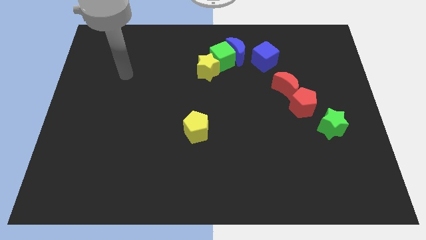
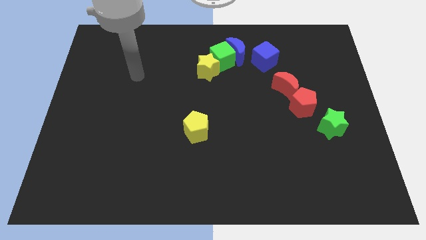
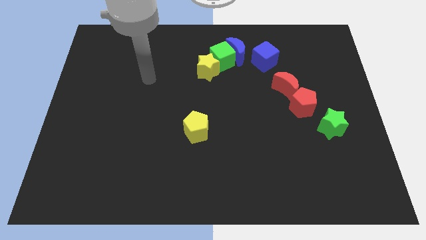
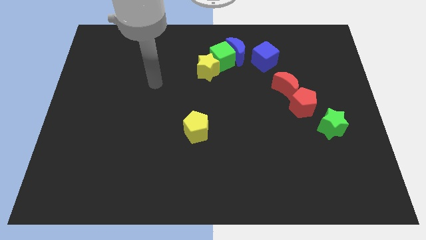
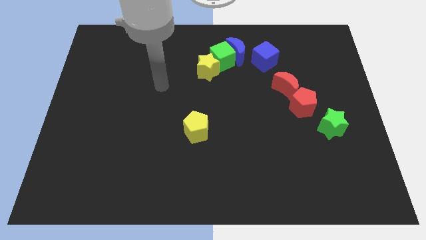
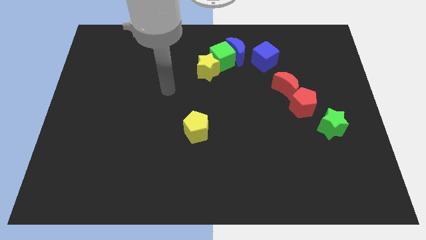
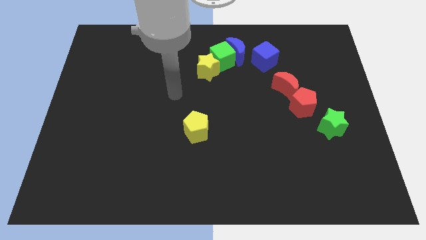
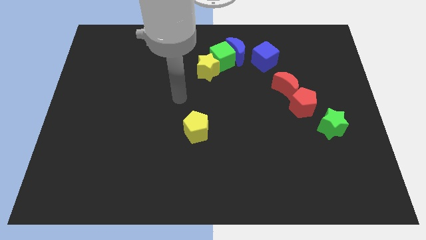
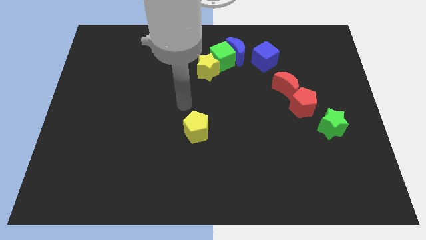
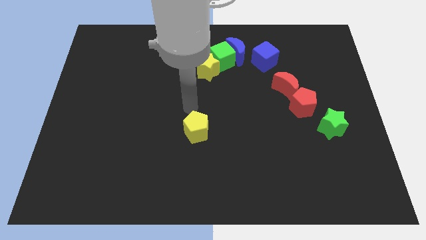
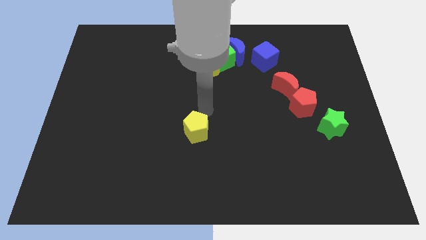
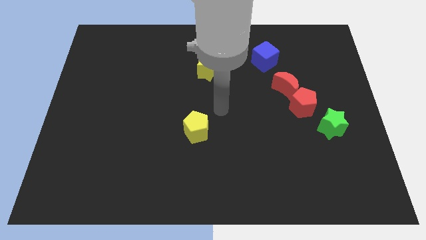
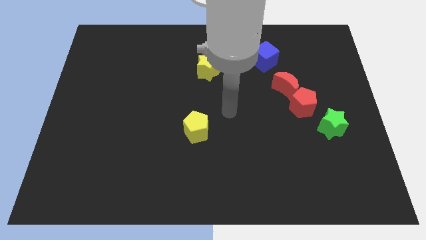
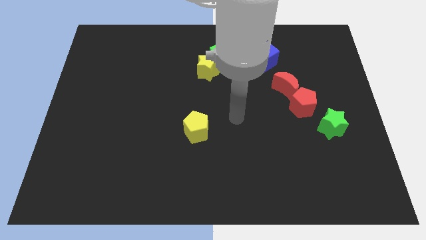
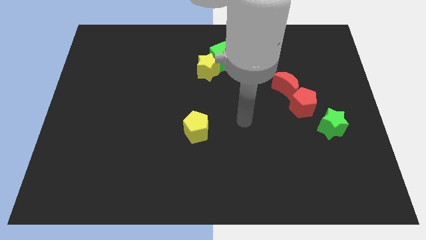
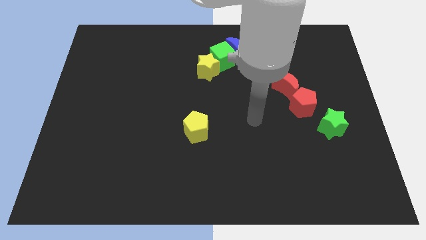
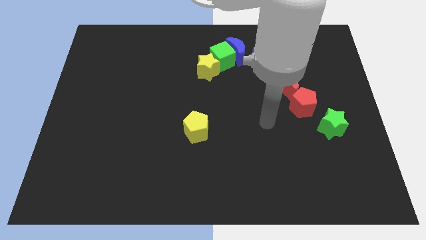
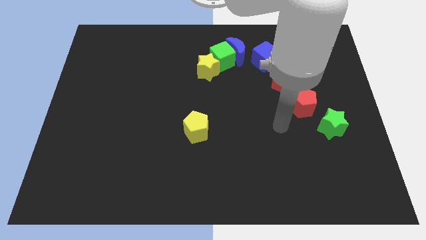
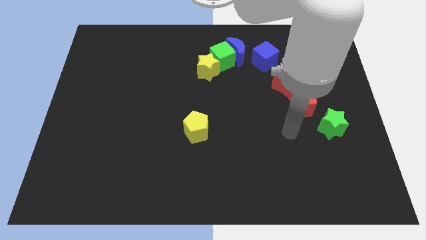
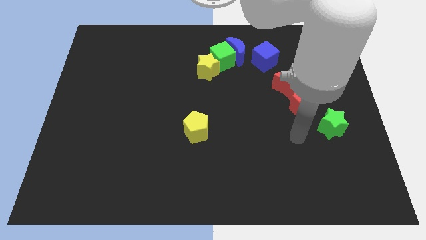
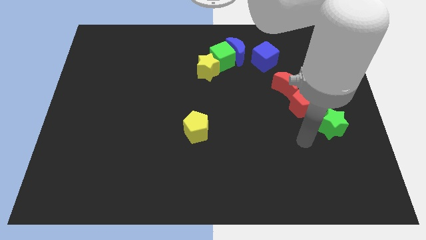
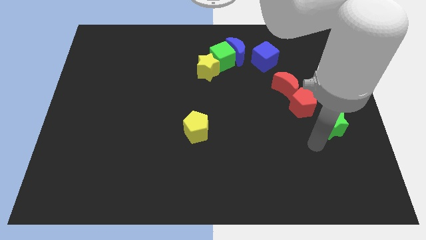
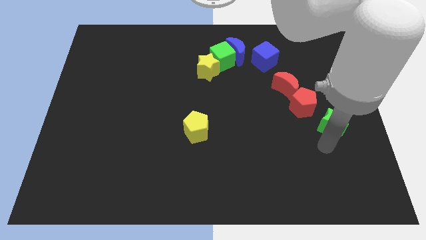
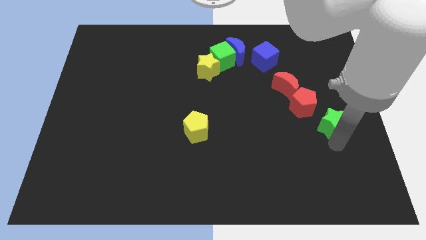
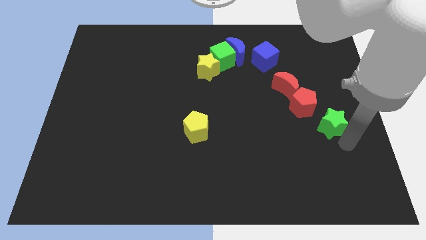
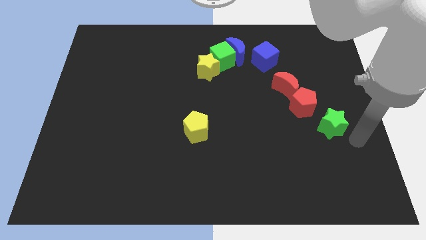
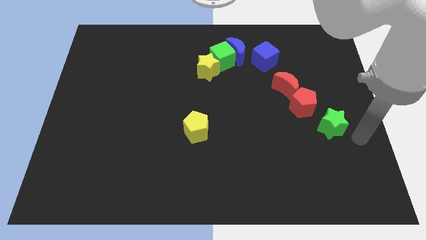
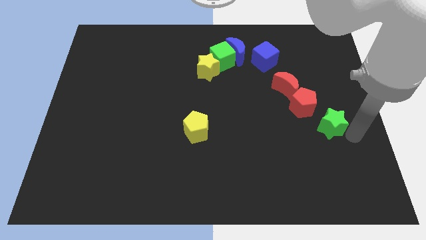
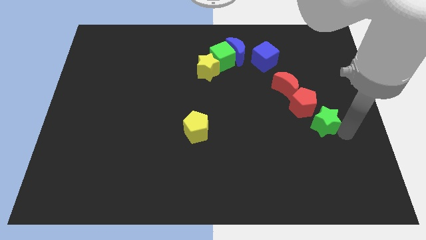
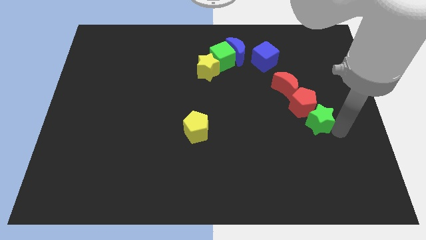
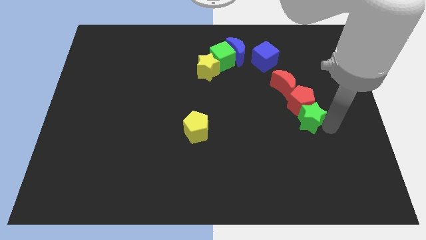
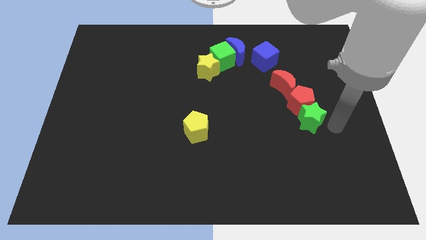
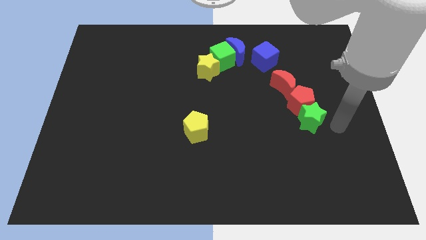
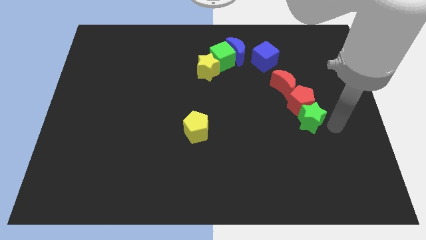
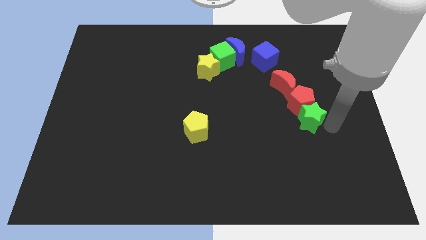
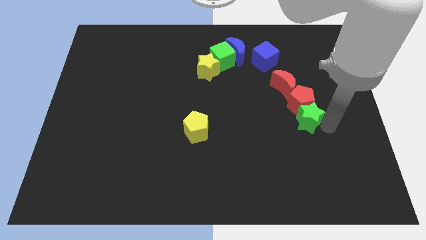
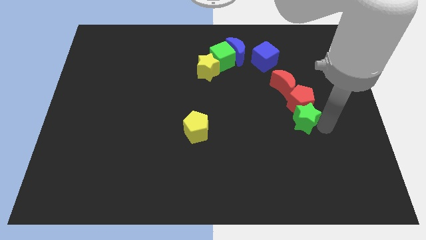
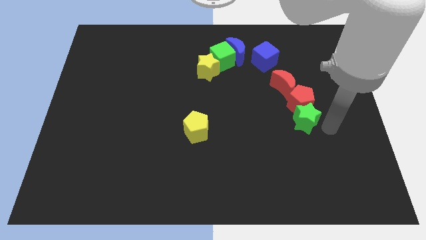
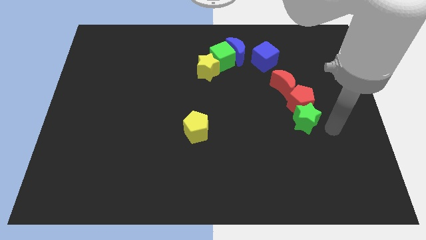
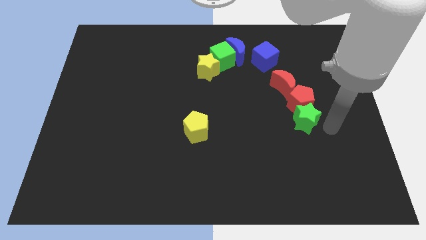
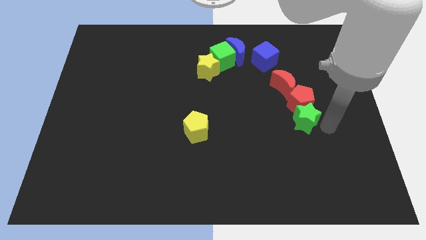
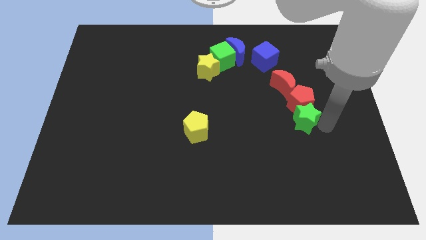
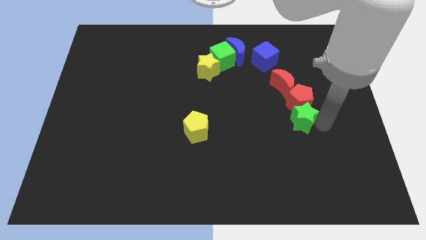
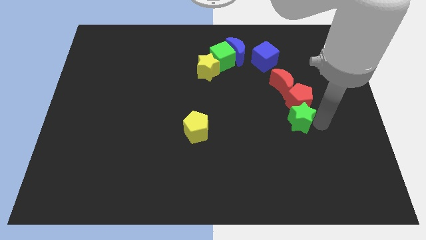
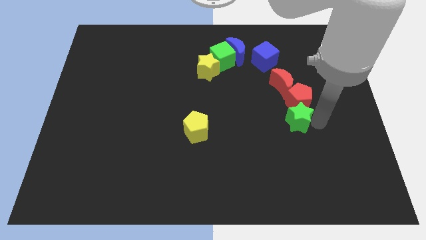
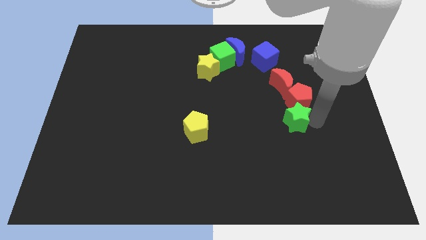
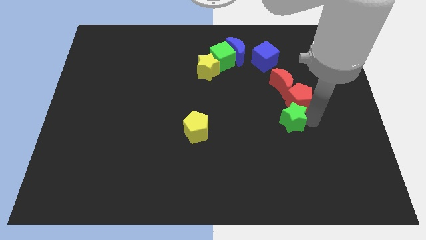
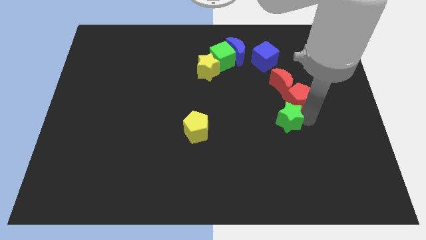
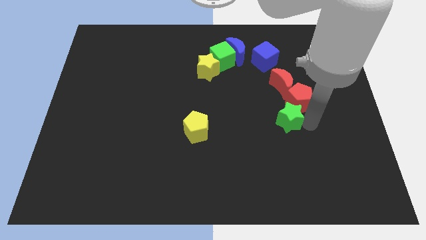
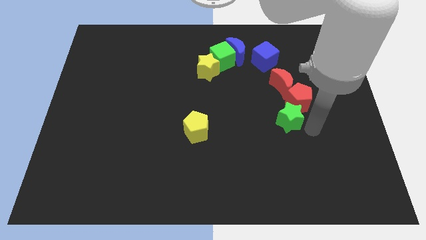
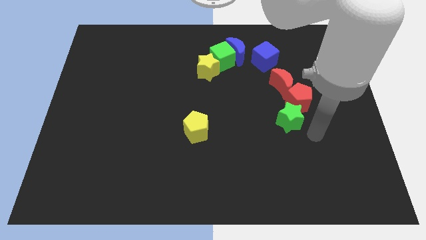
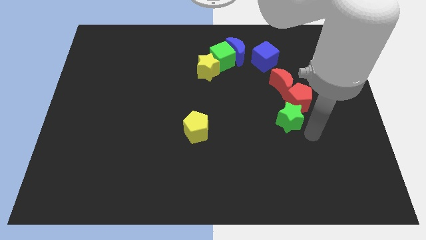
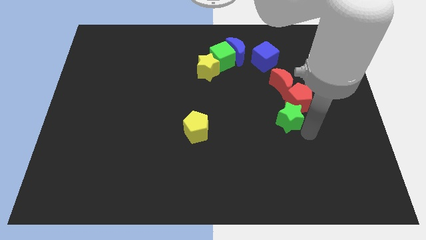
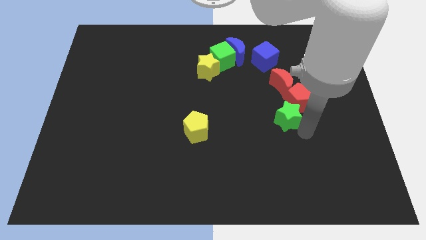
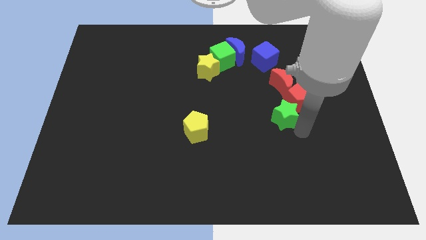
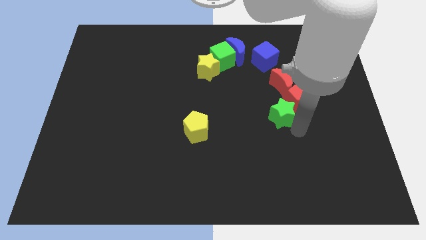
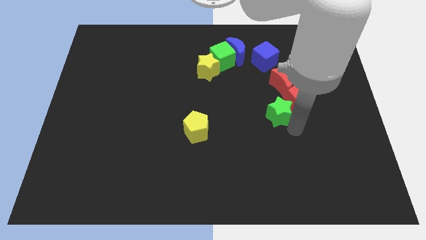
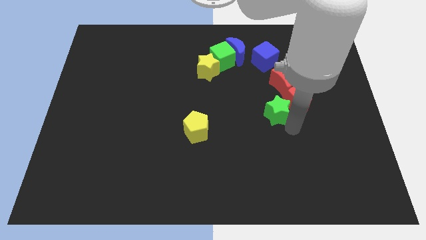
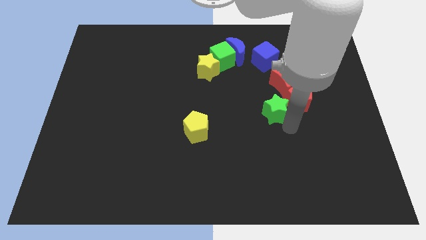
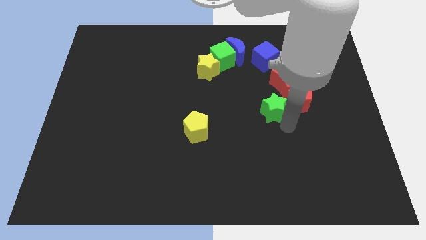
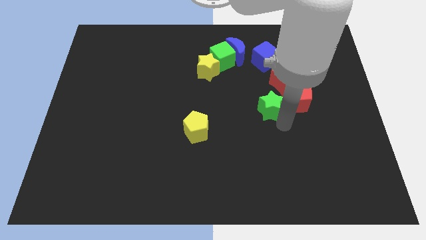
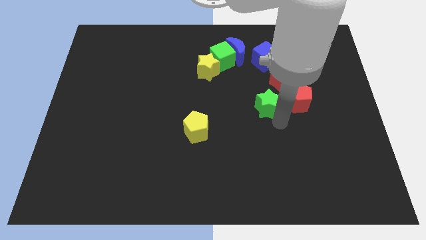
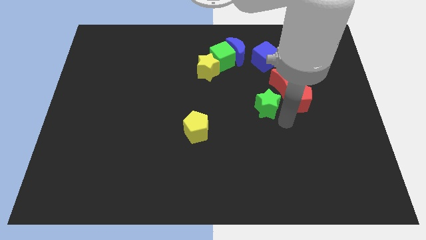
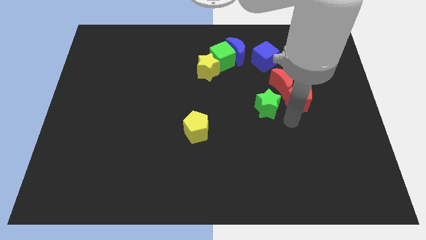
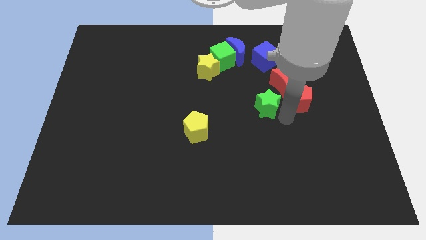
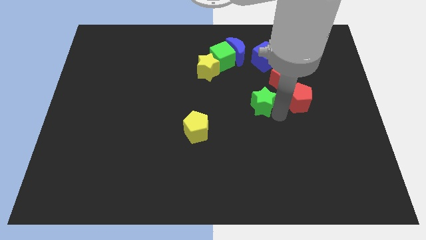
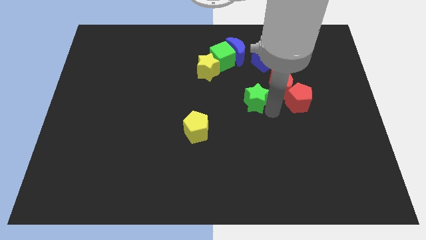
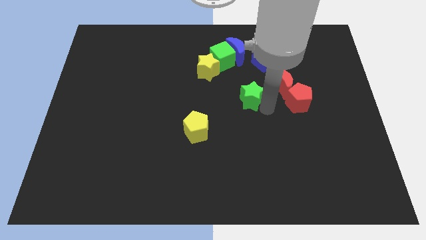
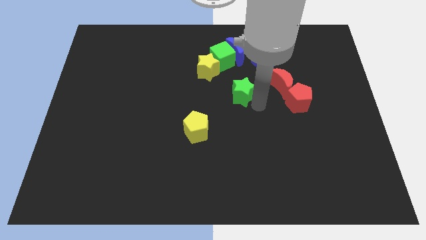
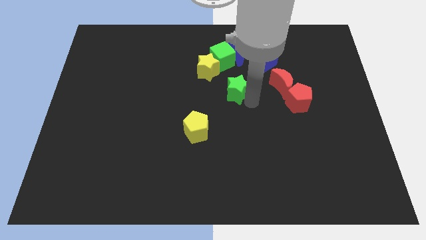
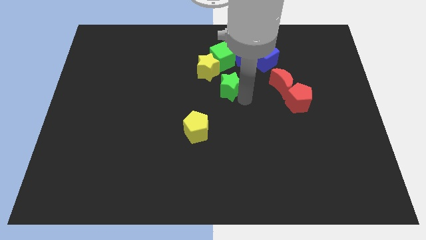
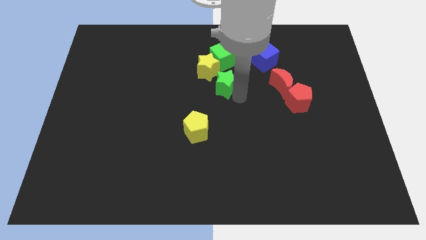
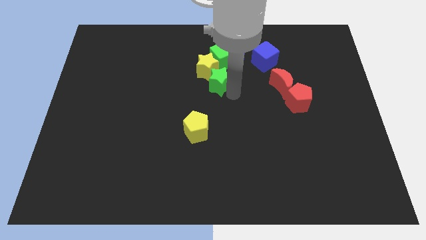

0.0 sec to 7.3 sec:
move the green star next to the yellow star
